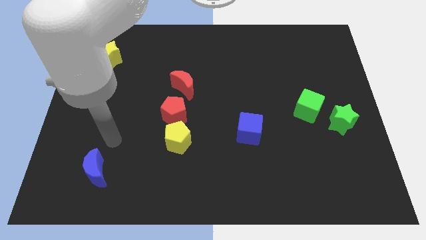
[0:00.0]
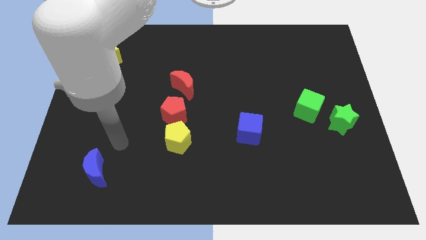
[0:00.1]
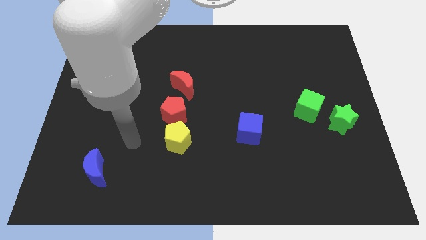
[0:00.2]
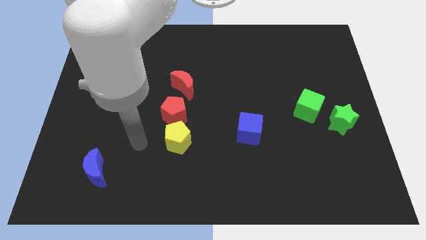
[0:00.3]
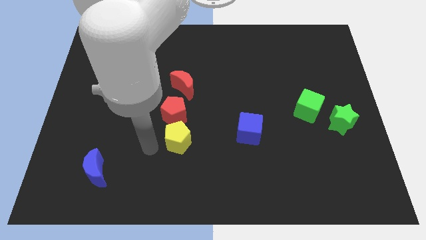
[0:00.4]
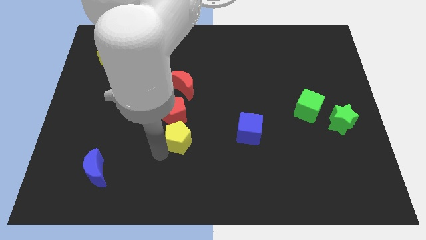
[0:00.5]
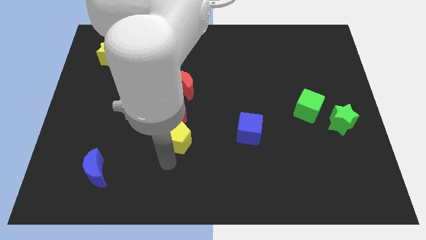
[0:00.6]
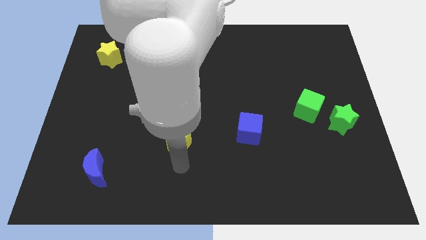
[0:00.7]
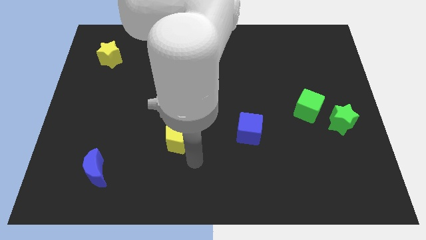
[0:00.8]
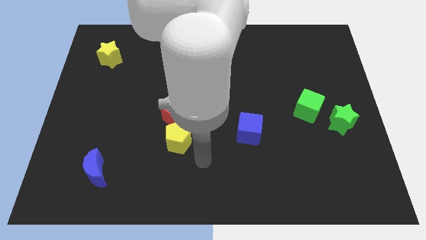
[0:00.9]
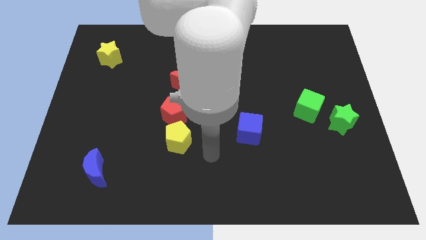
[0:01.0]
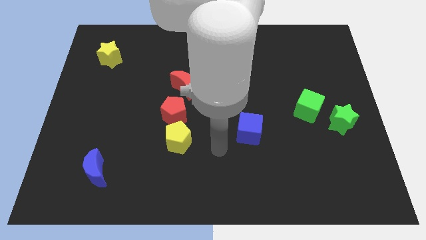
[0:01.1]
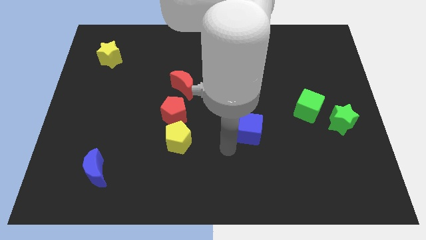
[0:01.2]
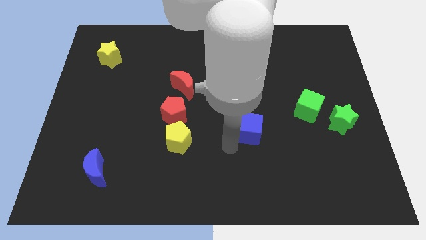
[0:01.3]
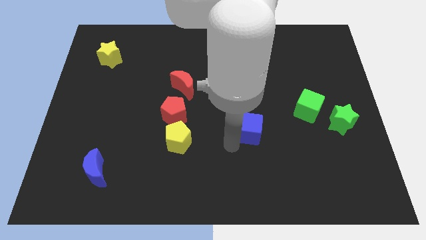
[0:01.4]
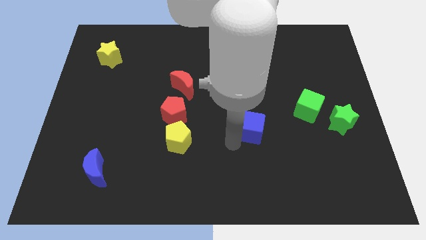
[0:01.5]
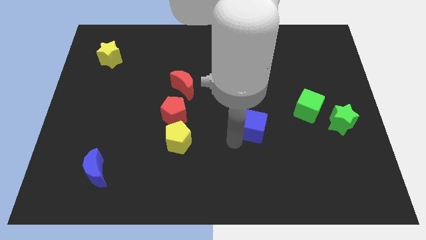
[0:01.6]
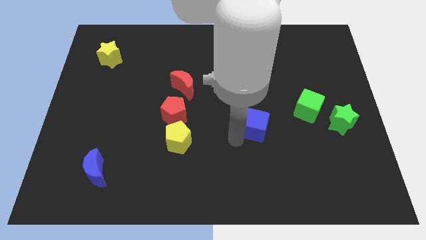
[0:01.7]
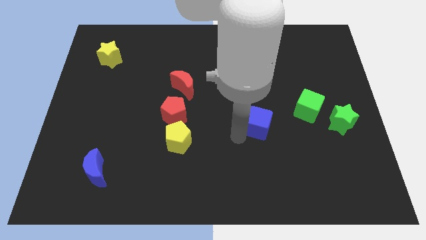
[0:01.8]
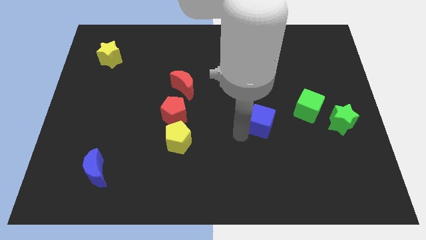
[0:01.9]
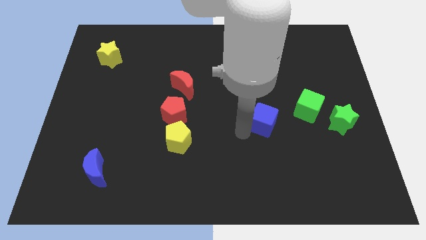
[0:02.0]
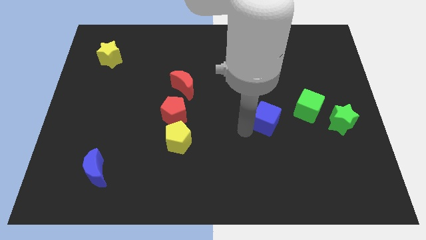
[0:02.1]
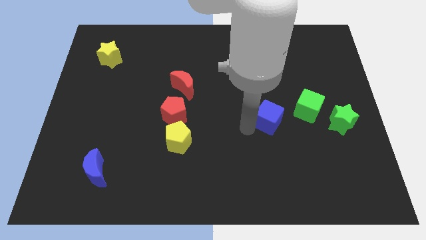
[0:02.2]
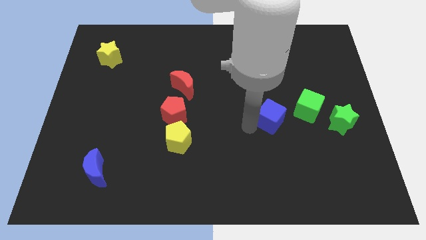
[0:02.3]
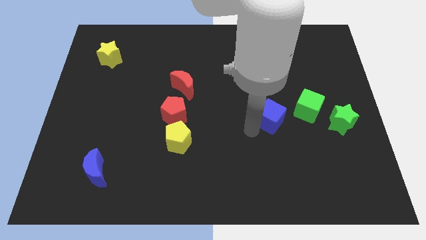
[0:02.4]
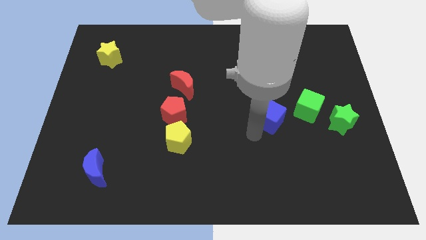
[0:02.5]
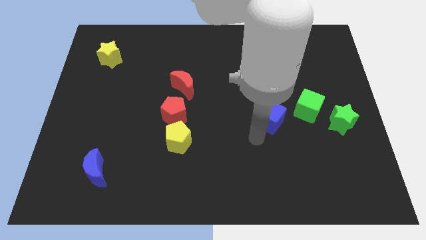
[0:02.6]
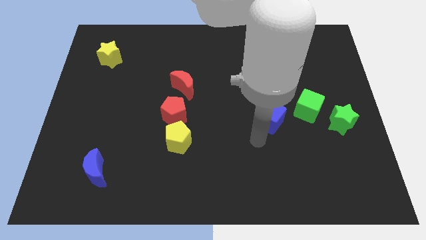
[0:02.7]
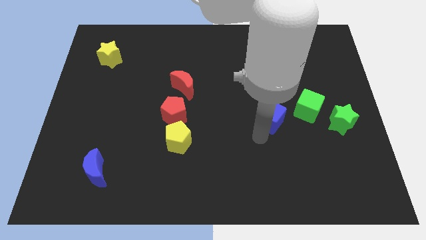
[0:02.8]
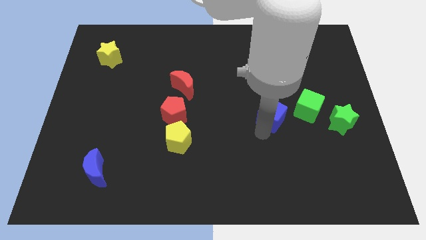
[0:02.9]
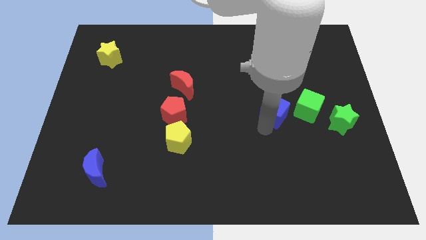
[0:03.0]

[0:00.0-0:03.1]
move the blue cube somewhat diagonally up and right

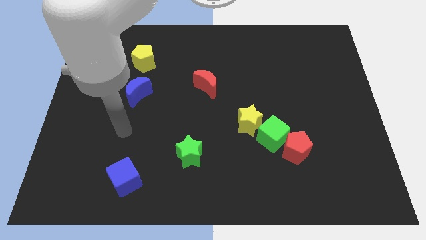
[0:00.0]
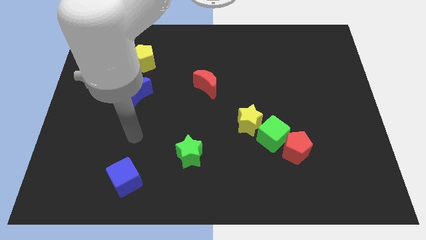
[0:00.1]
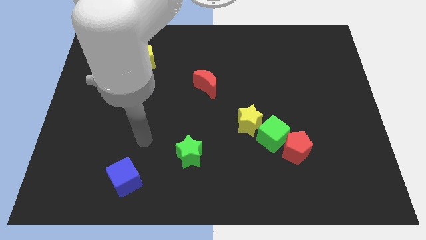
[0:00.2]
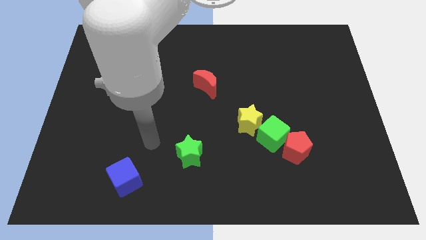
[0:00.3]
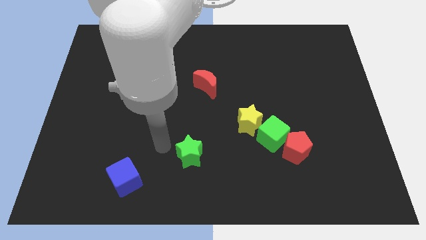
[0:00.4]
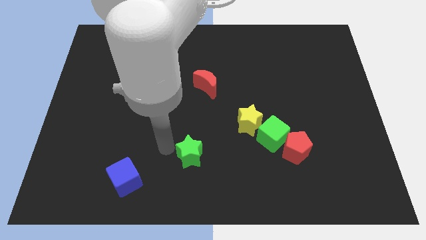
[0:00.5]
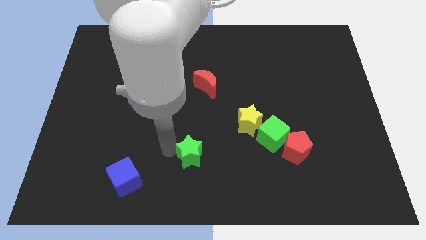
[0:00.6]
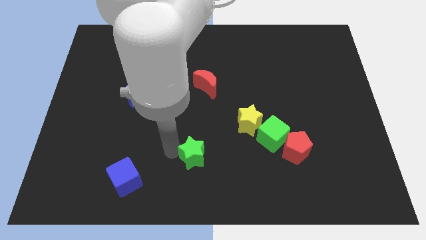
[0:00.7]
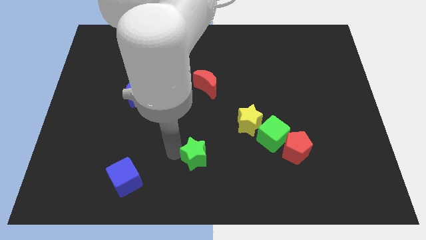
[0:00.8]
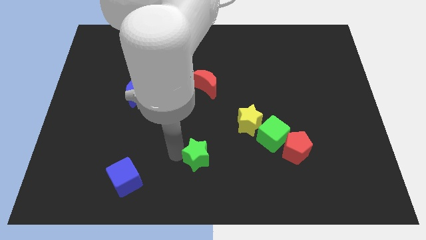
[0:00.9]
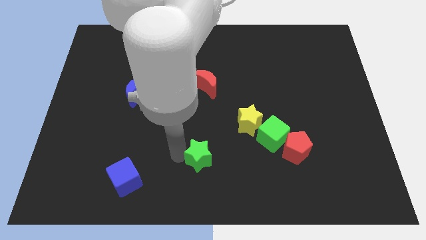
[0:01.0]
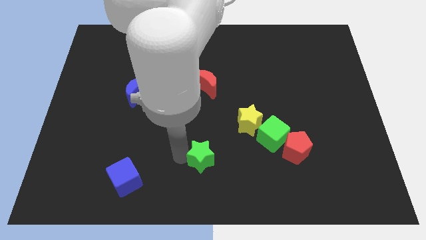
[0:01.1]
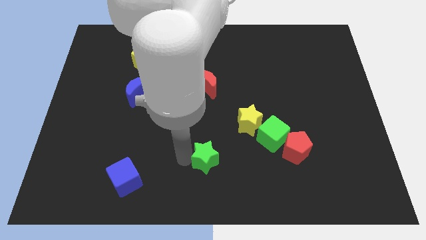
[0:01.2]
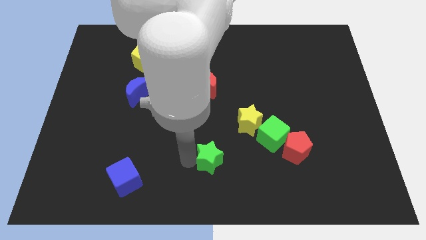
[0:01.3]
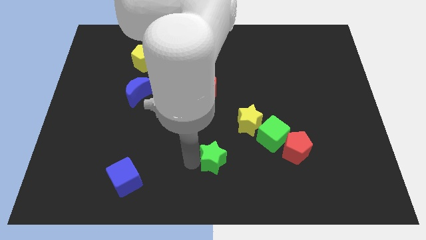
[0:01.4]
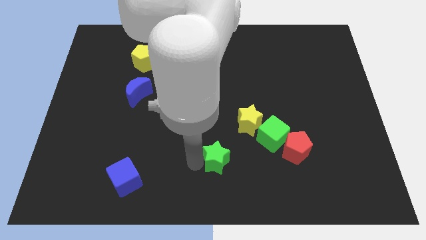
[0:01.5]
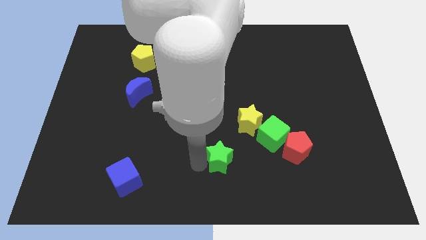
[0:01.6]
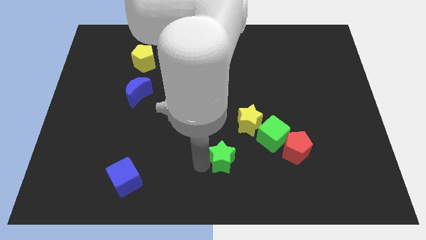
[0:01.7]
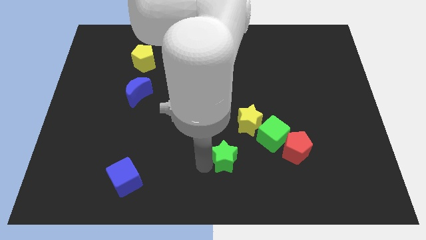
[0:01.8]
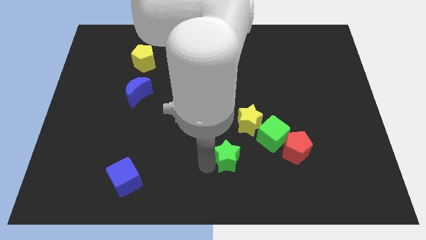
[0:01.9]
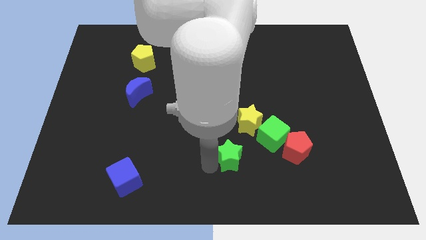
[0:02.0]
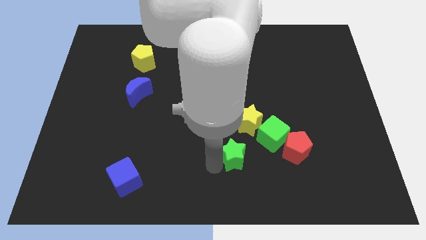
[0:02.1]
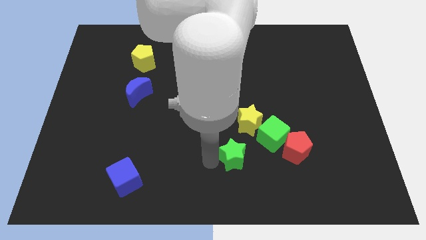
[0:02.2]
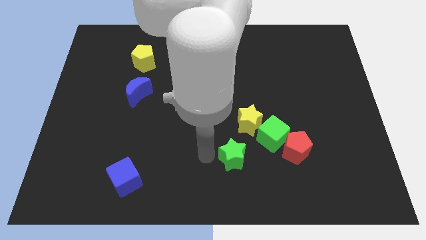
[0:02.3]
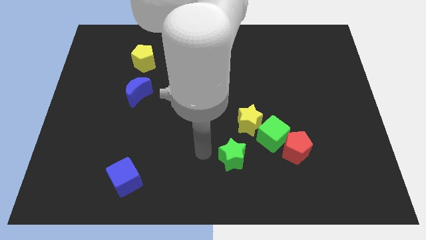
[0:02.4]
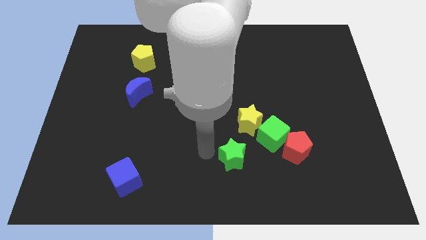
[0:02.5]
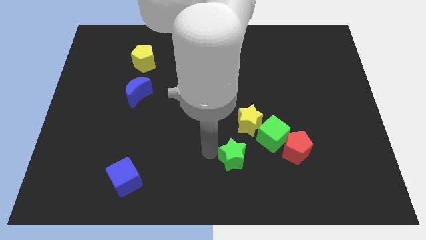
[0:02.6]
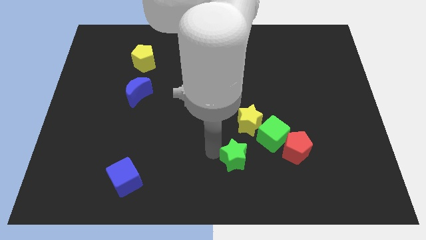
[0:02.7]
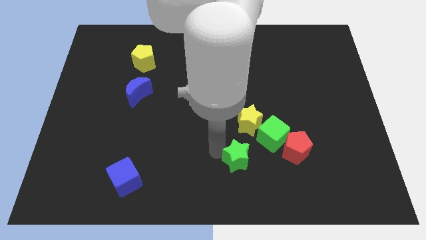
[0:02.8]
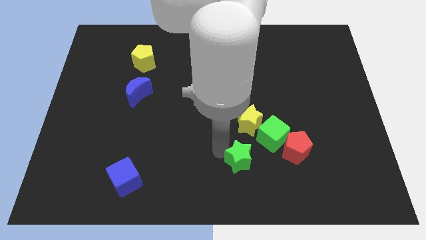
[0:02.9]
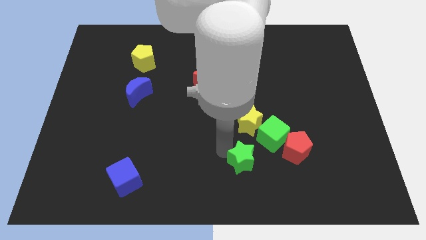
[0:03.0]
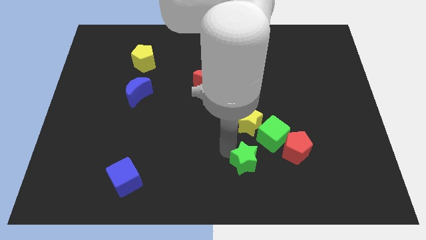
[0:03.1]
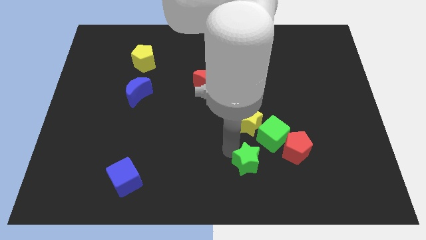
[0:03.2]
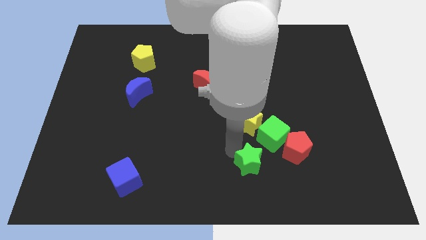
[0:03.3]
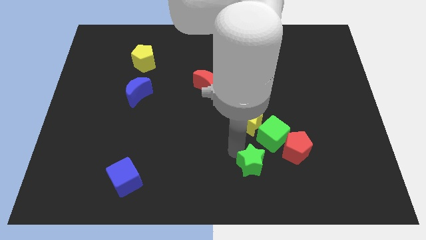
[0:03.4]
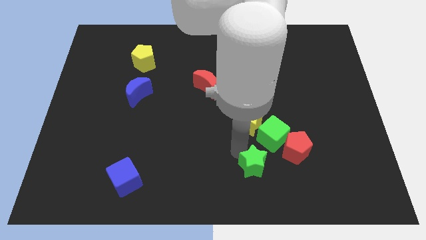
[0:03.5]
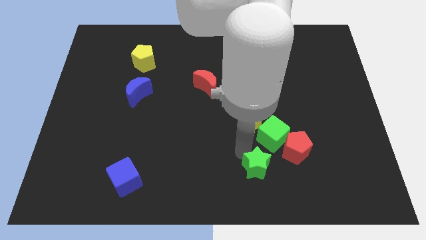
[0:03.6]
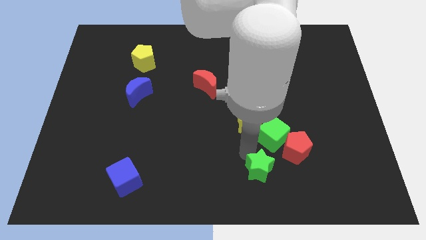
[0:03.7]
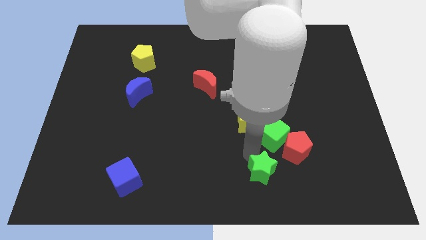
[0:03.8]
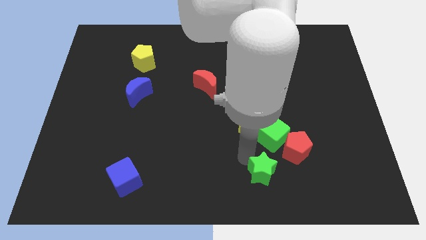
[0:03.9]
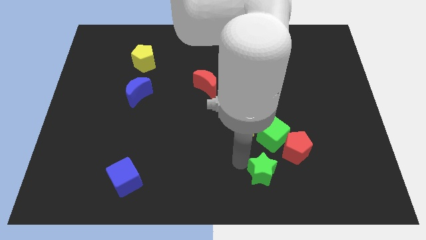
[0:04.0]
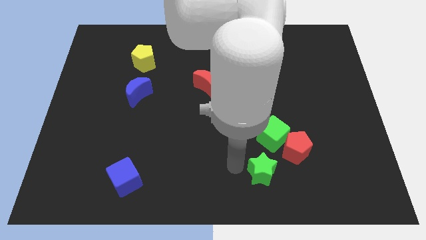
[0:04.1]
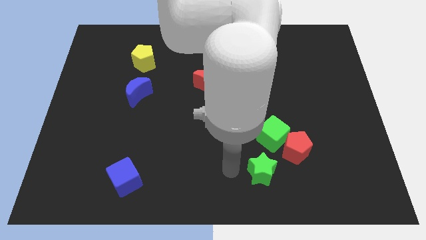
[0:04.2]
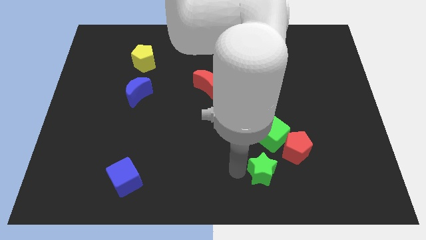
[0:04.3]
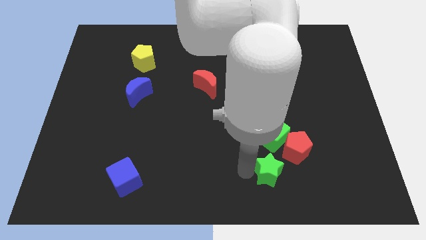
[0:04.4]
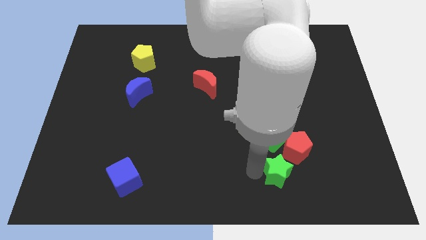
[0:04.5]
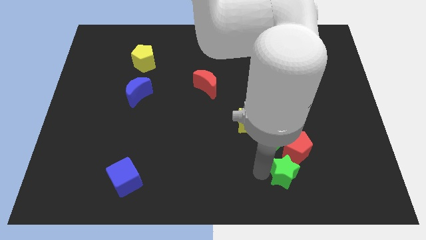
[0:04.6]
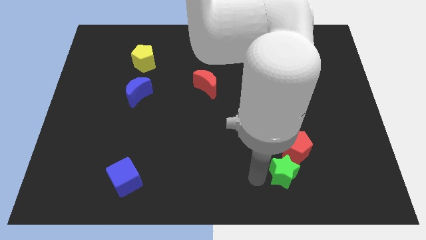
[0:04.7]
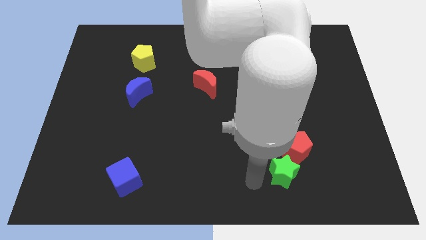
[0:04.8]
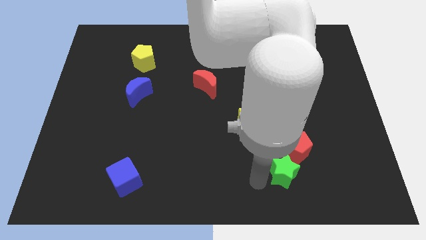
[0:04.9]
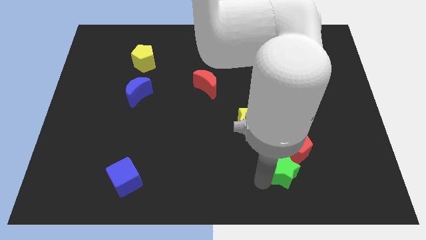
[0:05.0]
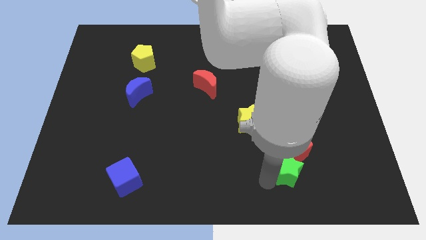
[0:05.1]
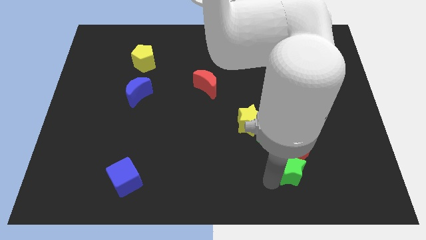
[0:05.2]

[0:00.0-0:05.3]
push the green star right
